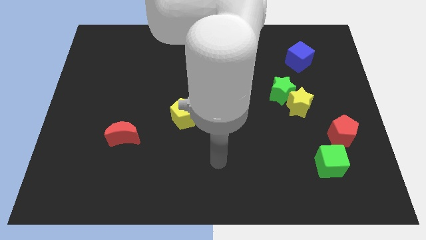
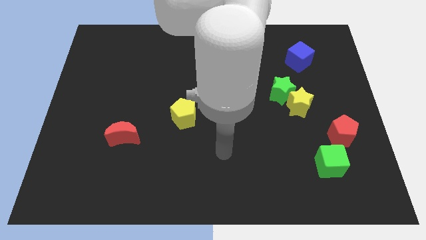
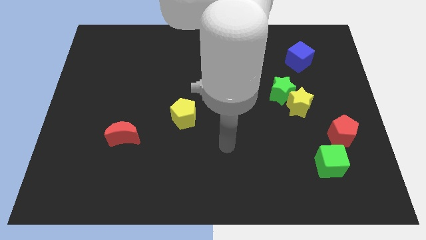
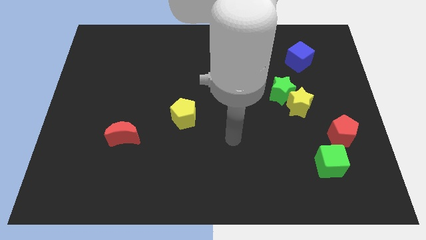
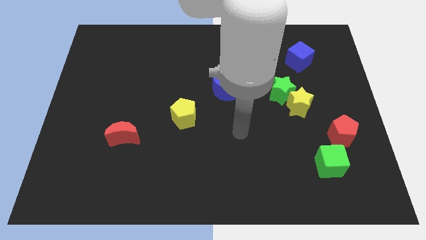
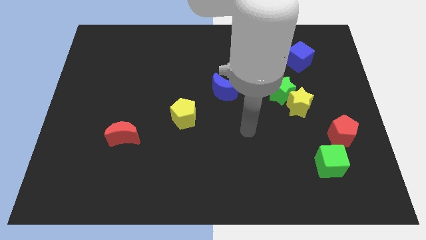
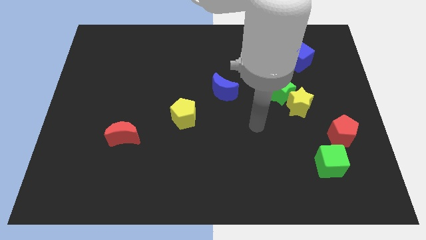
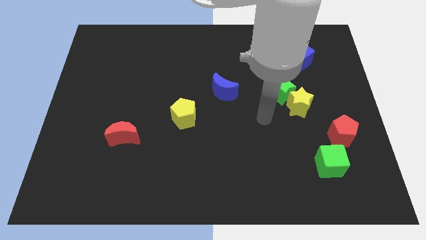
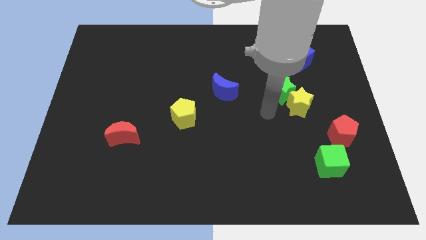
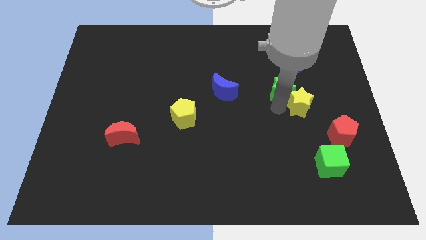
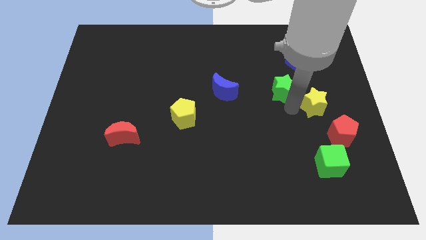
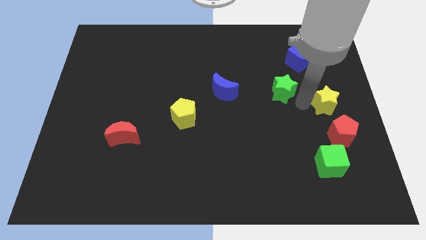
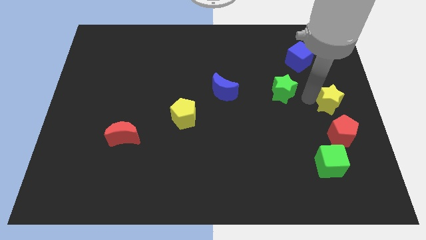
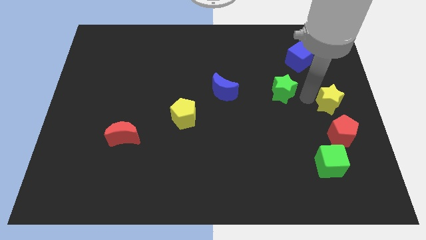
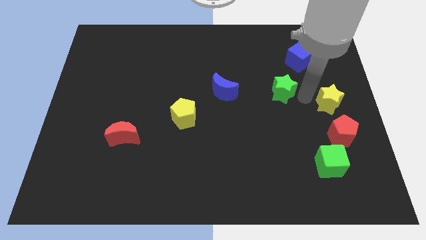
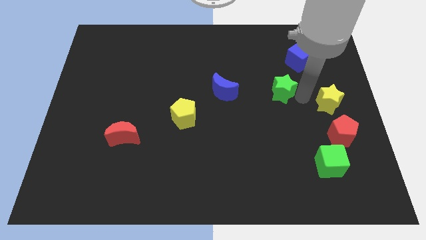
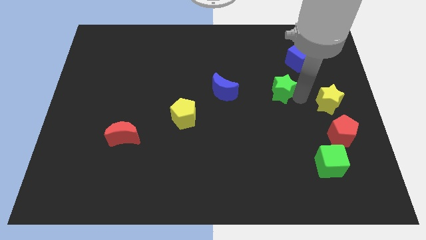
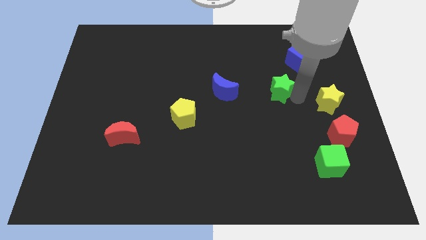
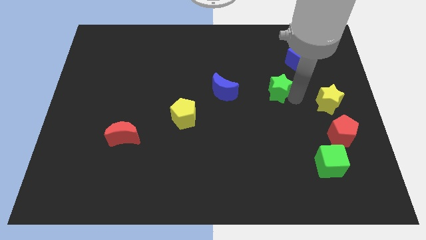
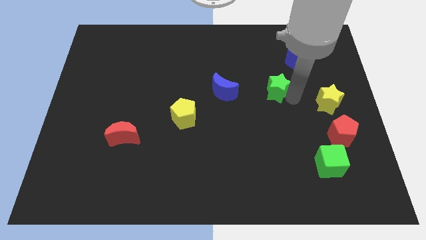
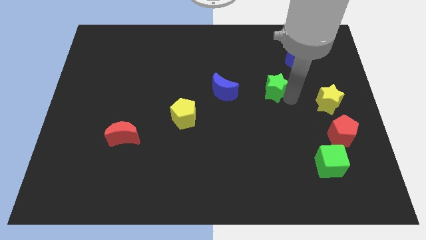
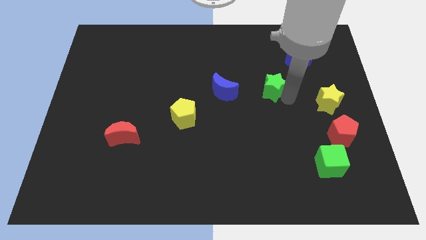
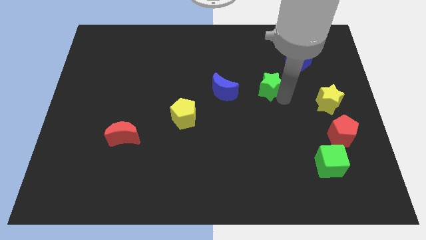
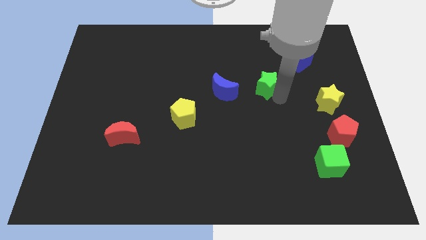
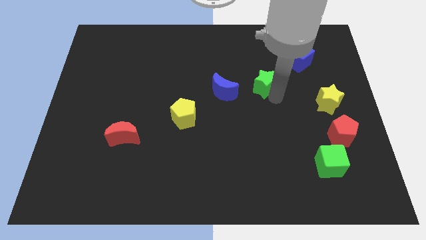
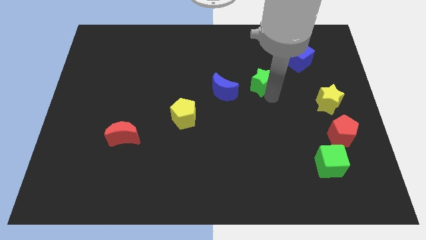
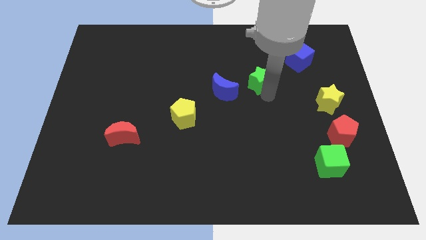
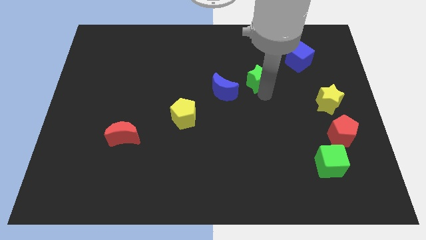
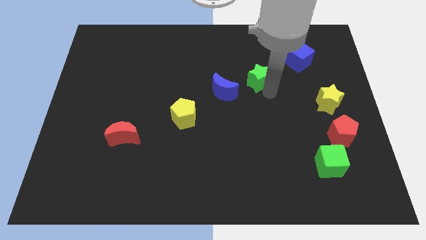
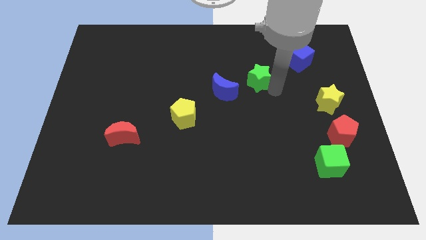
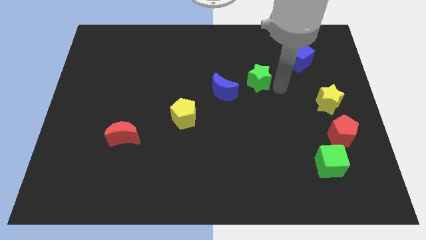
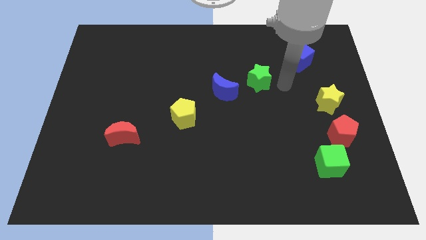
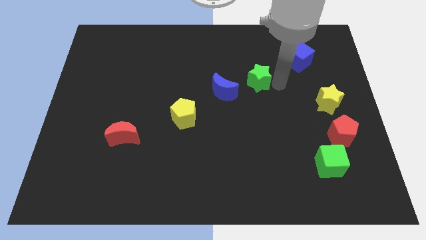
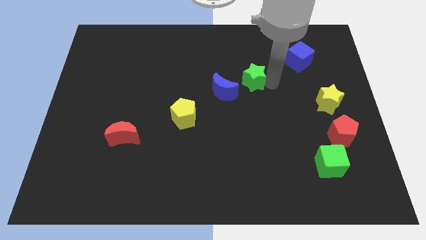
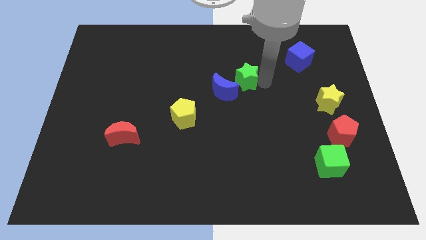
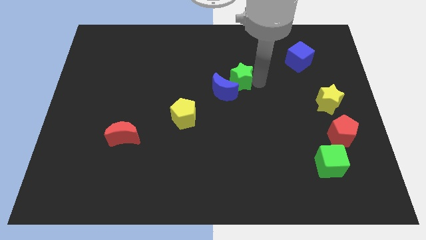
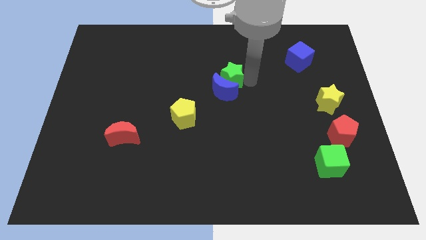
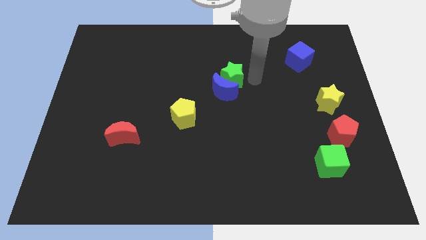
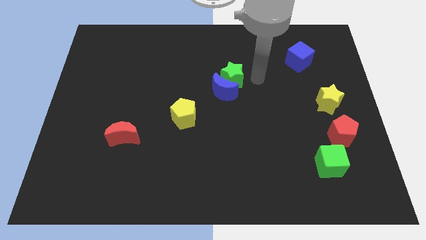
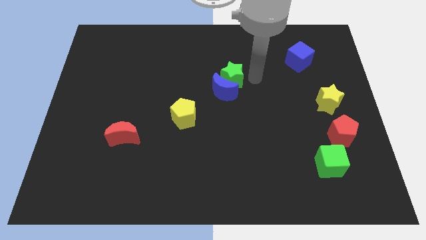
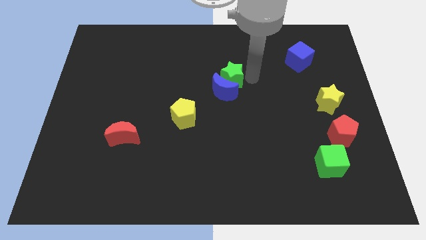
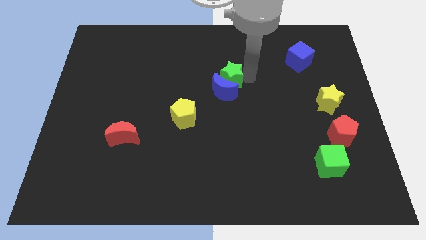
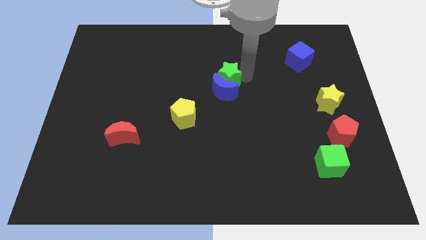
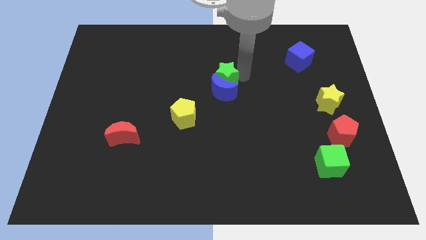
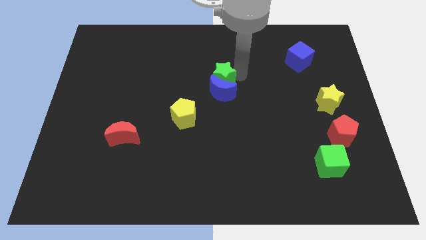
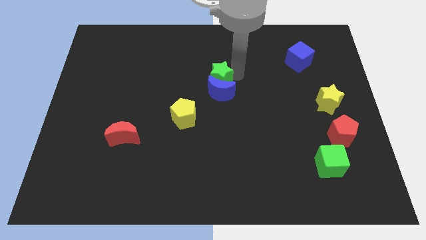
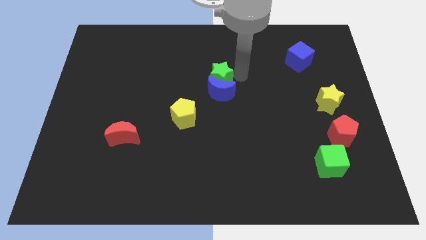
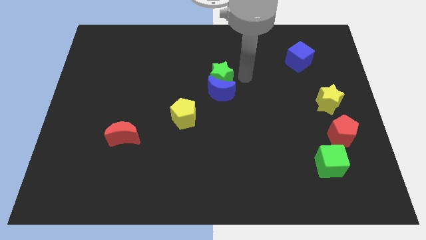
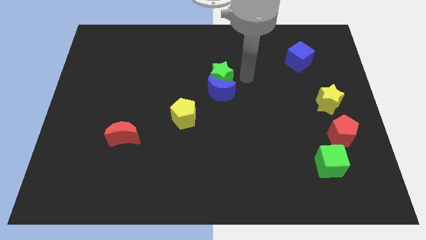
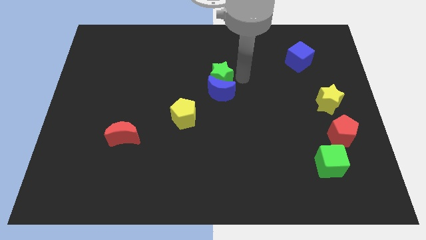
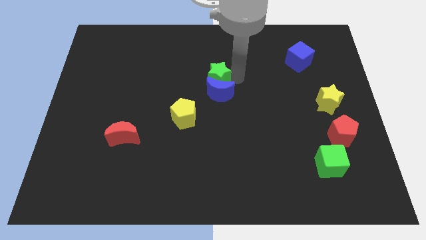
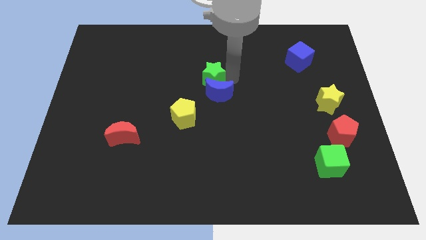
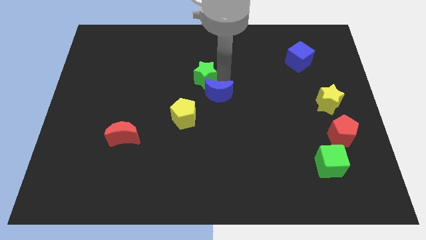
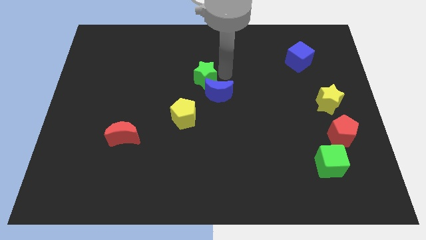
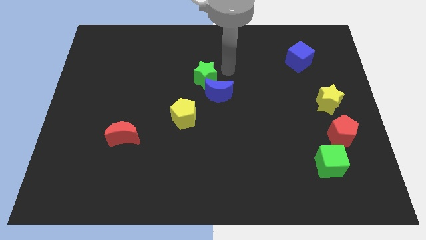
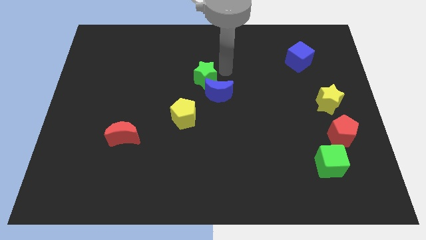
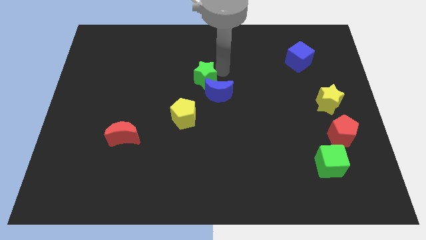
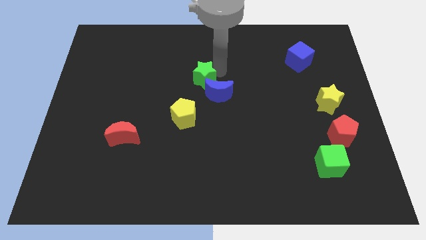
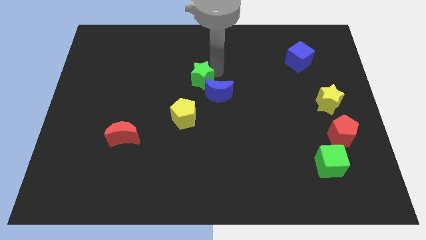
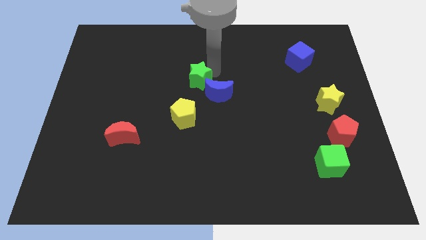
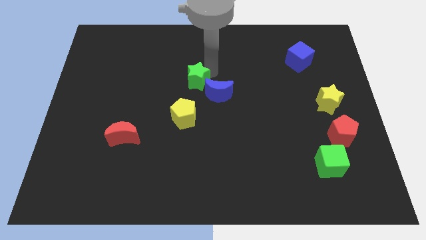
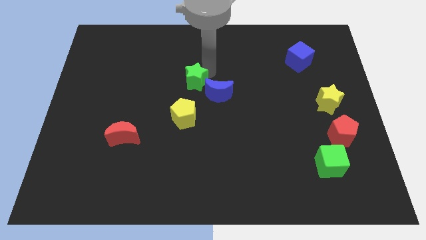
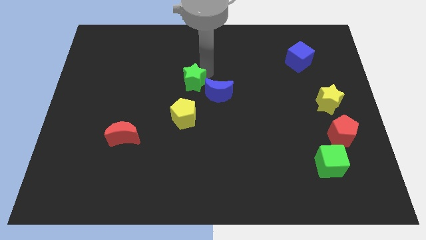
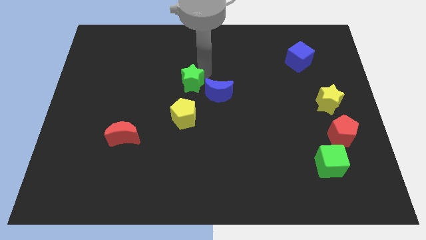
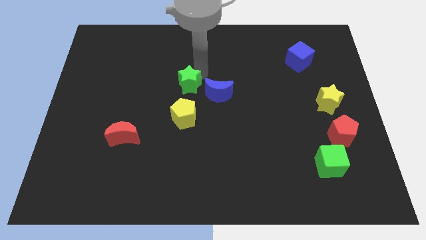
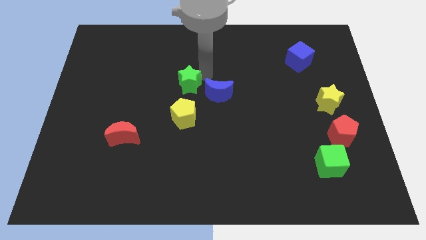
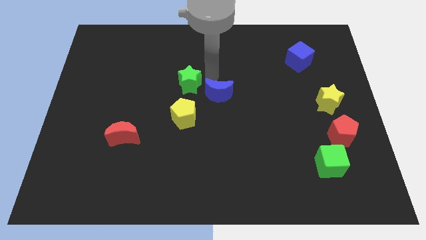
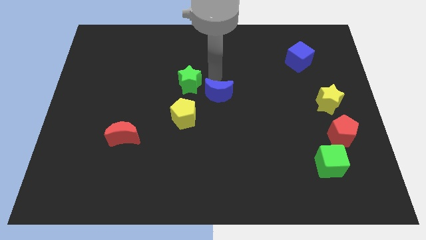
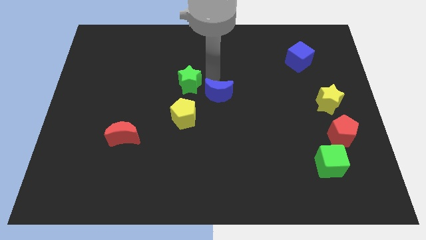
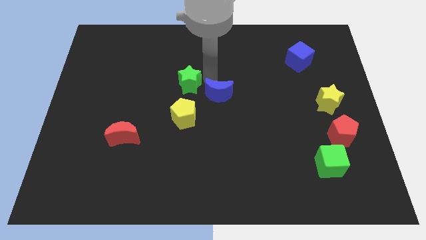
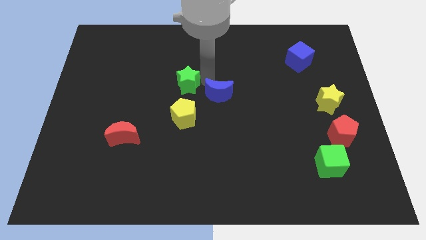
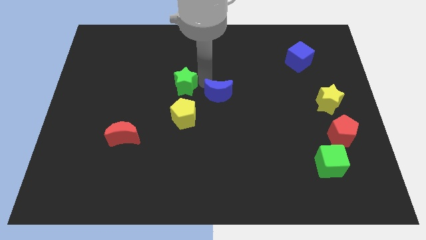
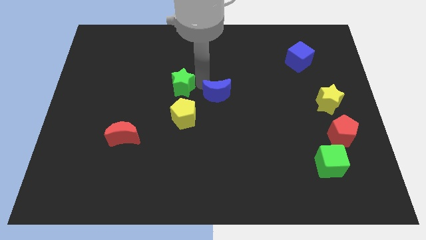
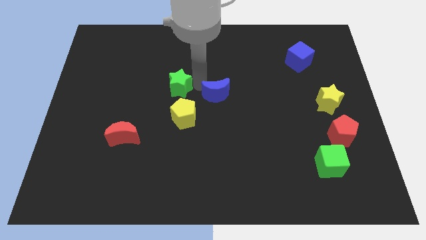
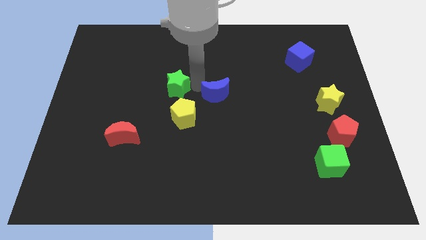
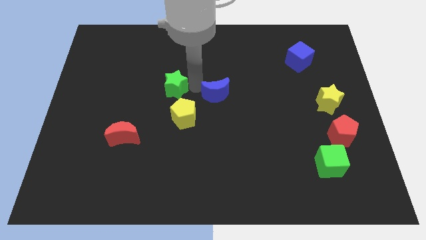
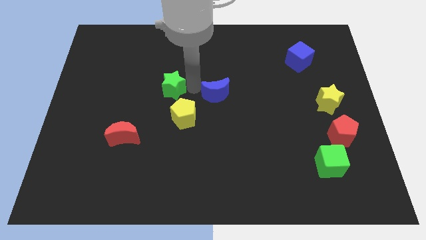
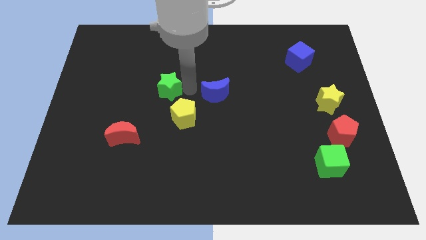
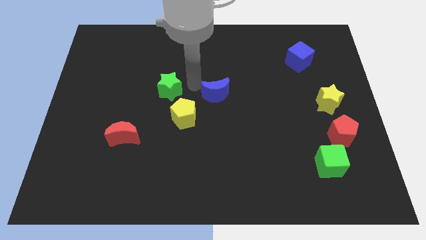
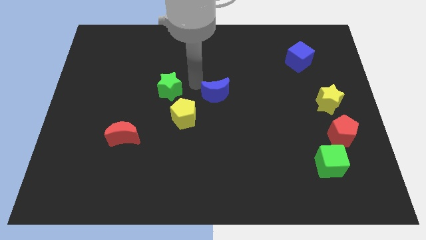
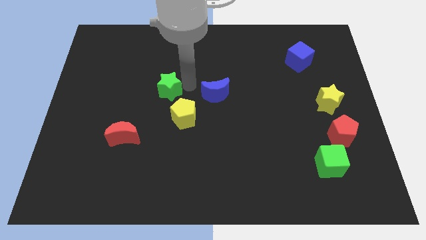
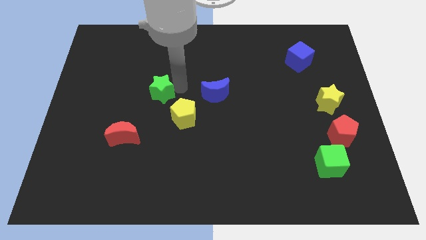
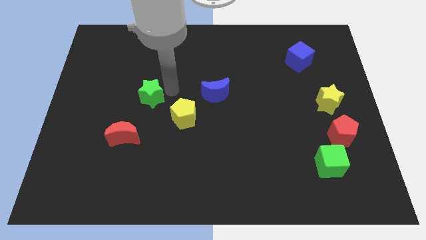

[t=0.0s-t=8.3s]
put the green star to the top of the red moon
